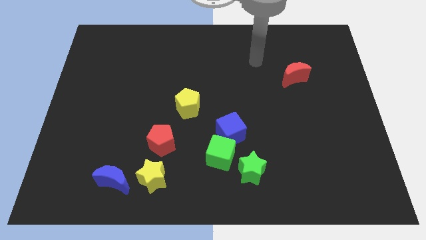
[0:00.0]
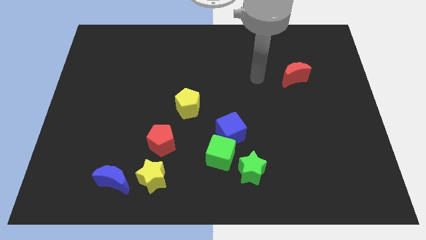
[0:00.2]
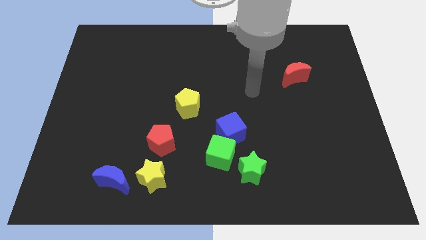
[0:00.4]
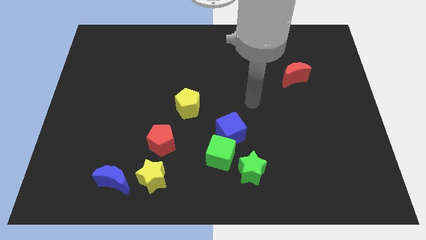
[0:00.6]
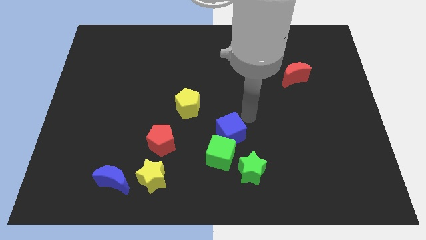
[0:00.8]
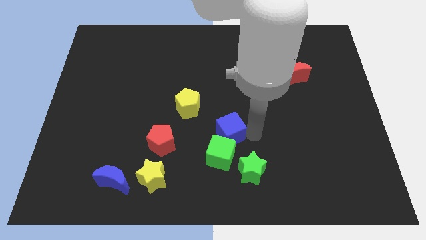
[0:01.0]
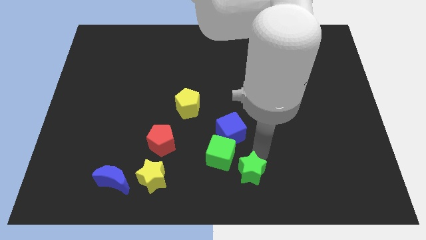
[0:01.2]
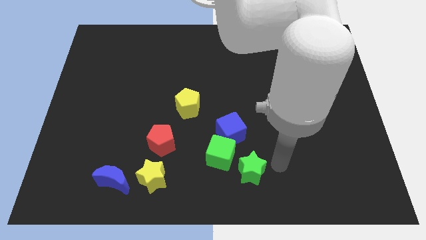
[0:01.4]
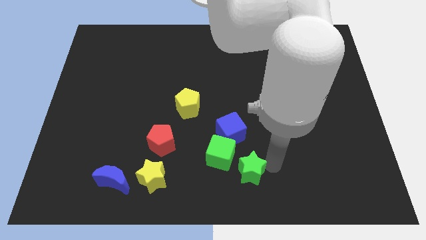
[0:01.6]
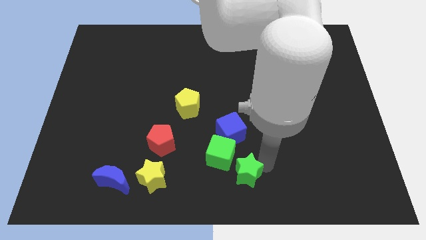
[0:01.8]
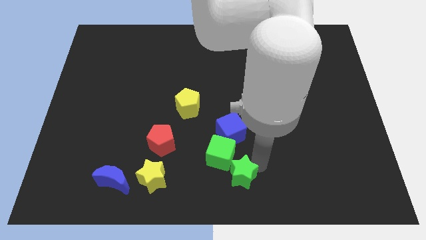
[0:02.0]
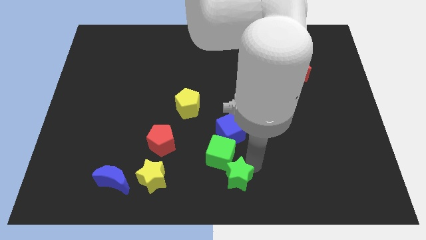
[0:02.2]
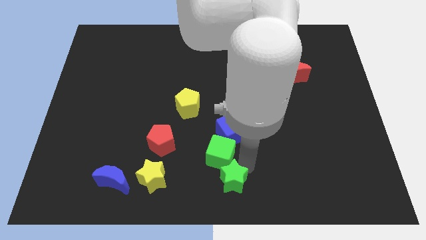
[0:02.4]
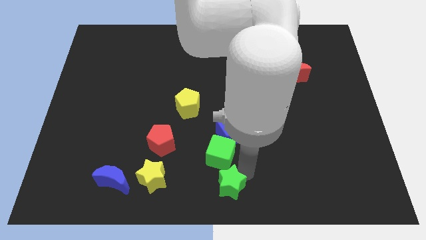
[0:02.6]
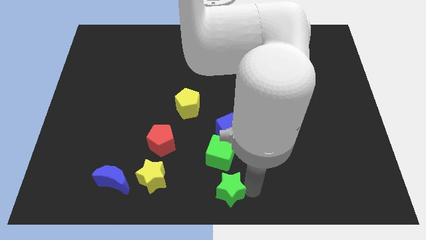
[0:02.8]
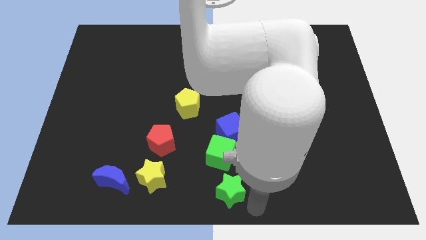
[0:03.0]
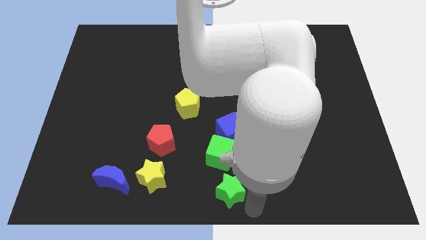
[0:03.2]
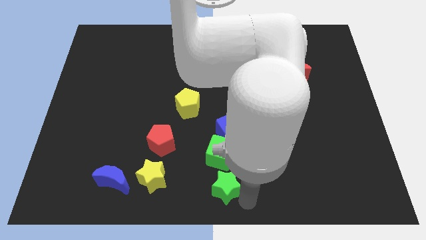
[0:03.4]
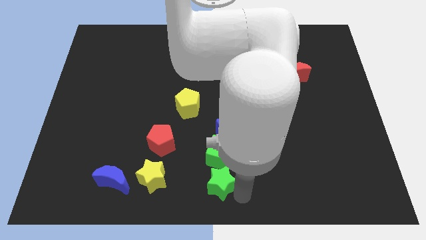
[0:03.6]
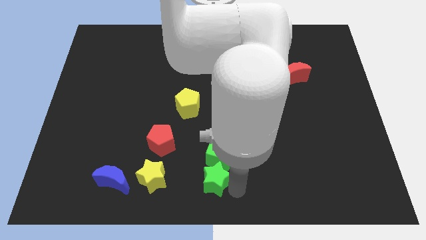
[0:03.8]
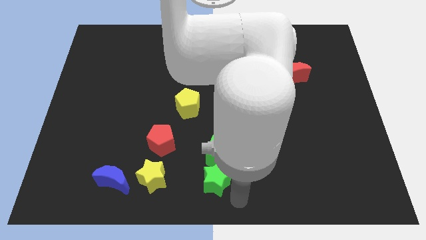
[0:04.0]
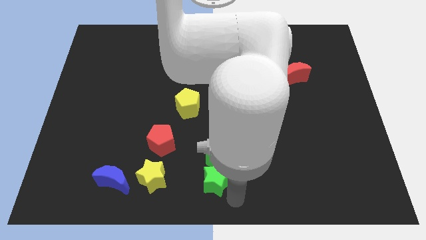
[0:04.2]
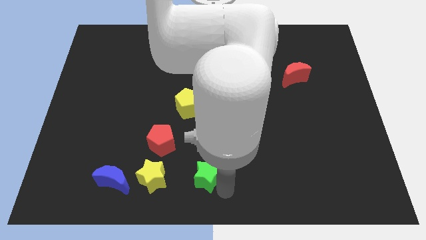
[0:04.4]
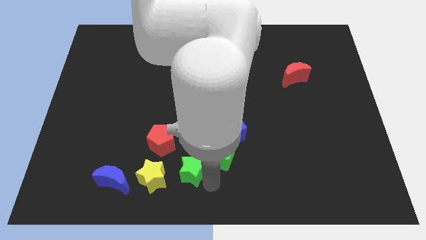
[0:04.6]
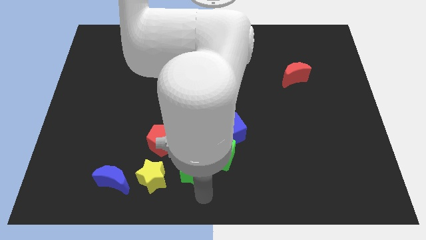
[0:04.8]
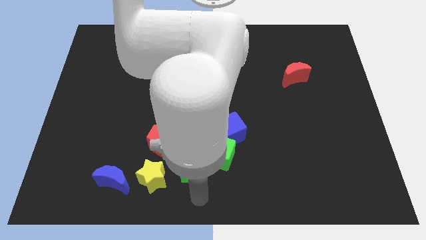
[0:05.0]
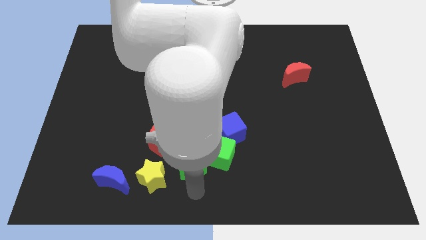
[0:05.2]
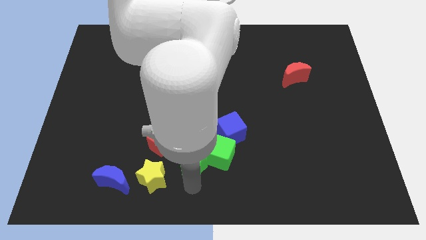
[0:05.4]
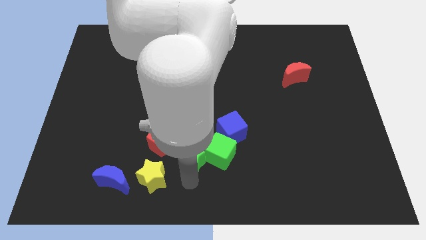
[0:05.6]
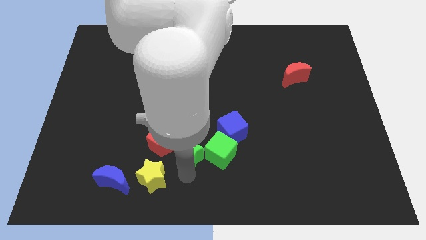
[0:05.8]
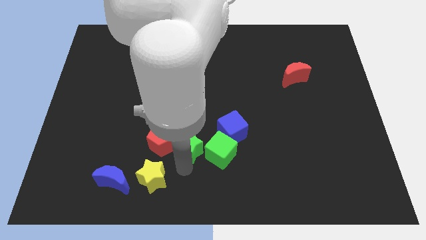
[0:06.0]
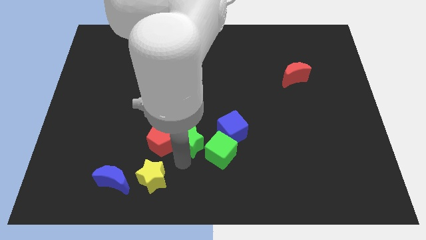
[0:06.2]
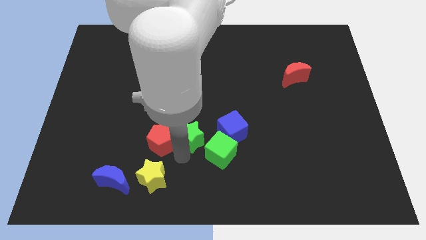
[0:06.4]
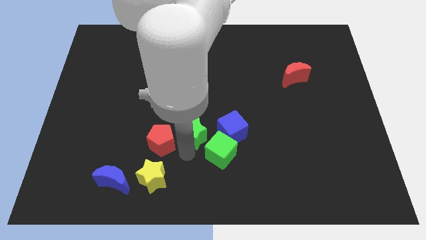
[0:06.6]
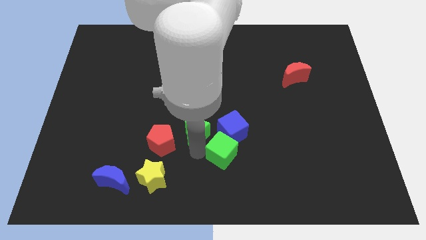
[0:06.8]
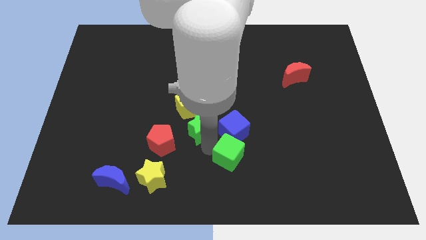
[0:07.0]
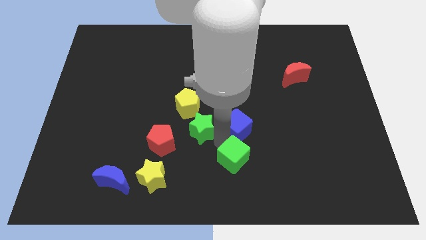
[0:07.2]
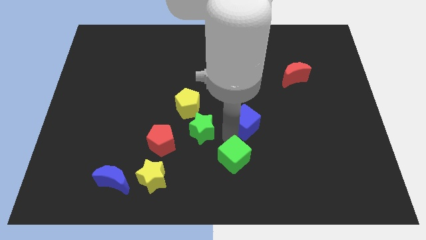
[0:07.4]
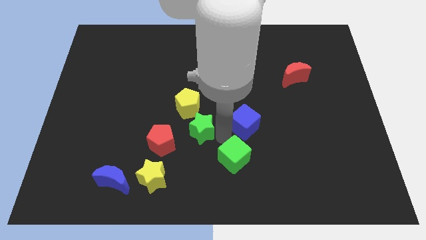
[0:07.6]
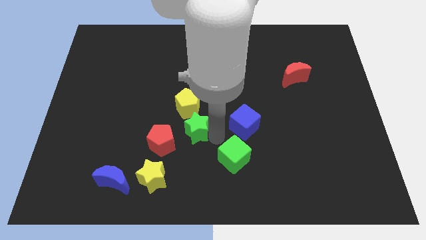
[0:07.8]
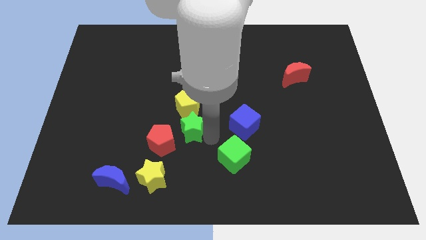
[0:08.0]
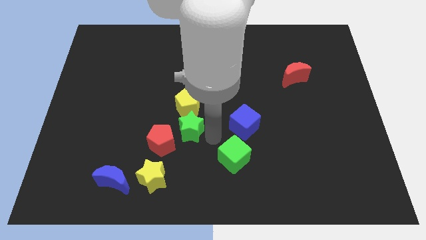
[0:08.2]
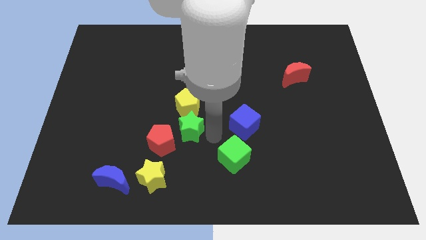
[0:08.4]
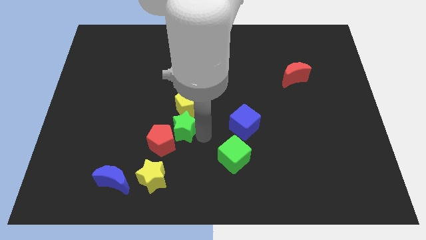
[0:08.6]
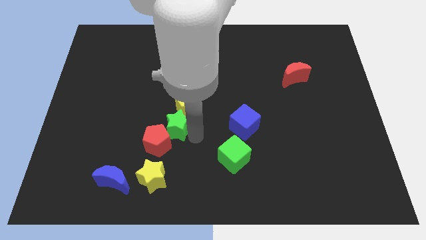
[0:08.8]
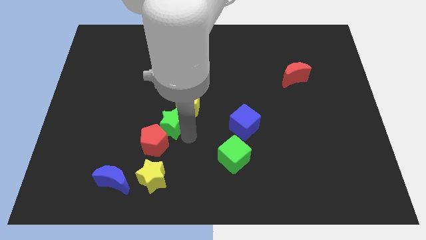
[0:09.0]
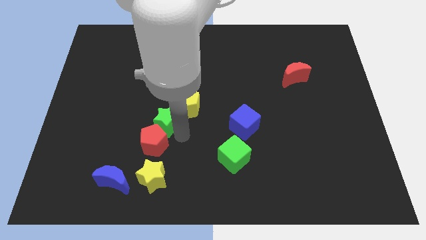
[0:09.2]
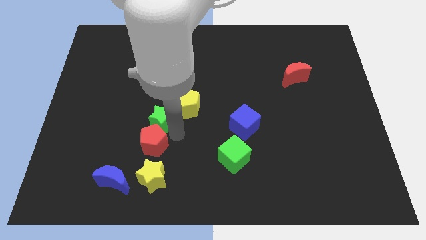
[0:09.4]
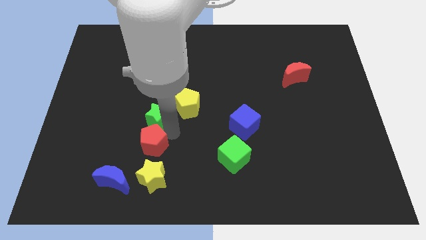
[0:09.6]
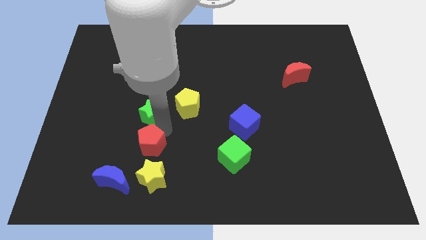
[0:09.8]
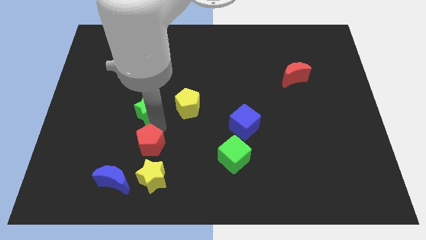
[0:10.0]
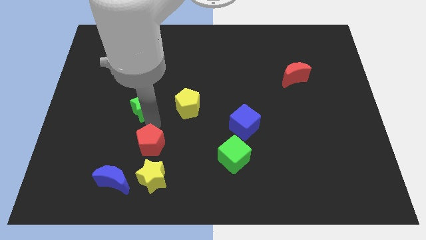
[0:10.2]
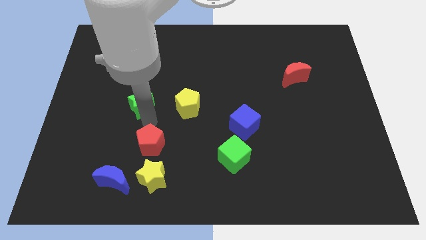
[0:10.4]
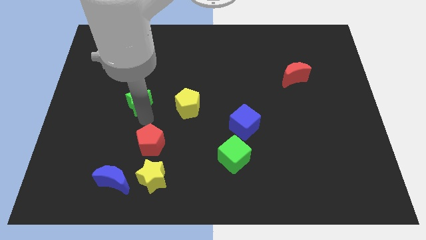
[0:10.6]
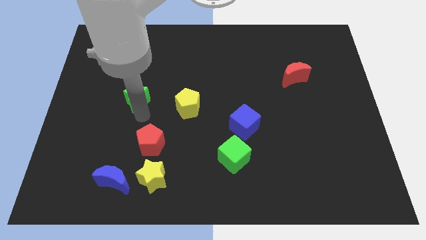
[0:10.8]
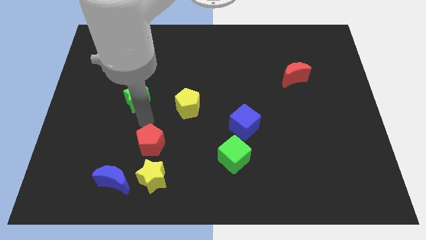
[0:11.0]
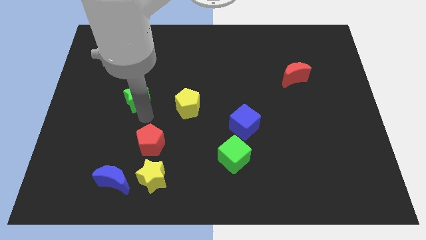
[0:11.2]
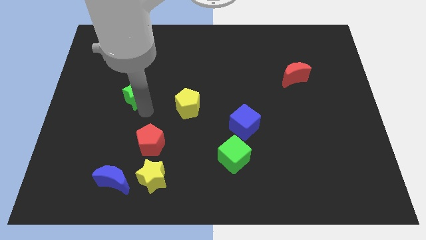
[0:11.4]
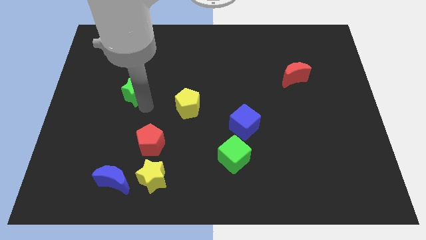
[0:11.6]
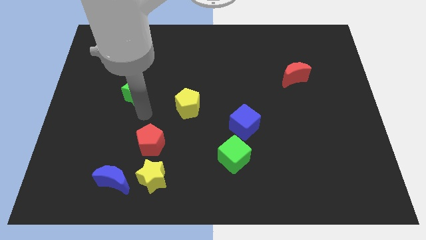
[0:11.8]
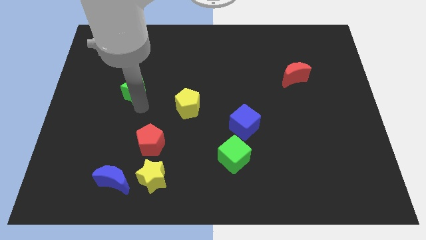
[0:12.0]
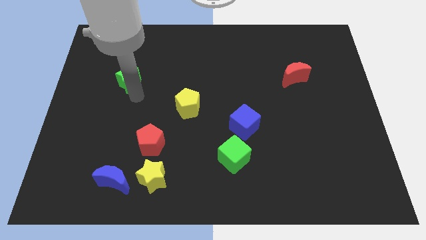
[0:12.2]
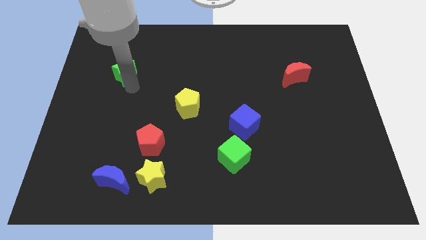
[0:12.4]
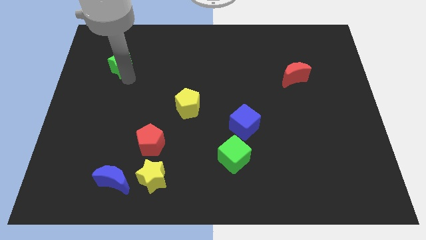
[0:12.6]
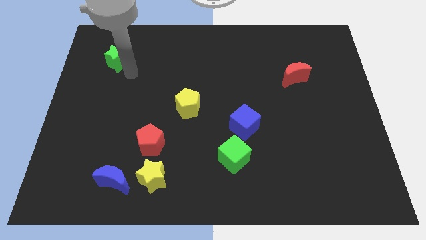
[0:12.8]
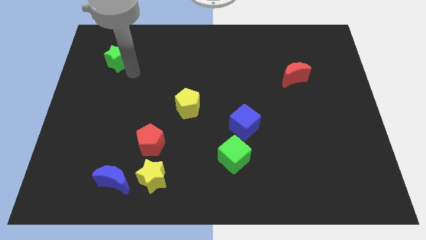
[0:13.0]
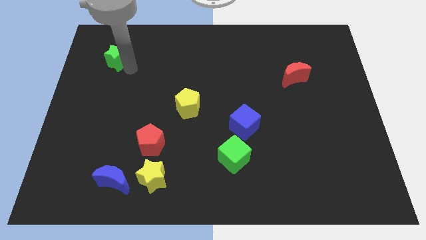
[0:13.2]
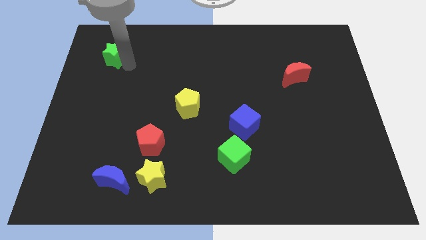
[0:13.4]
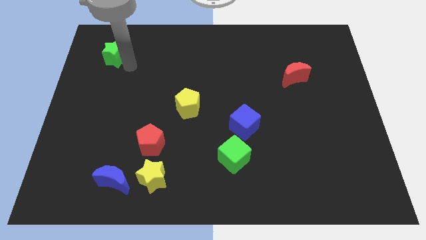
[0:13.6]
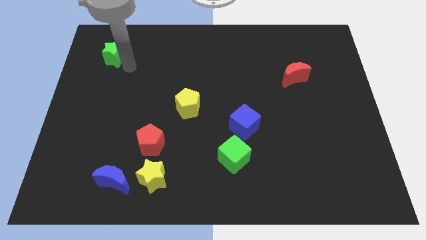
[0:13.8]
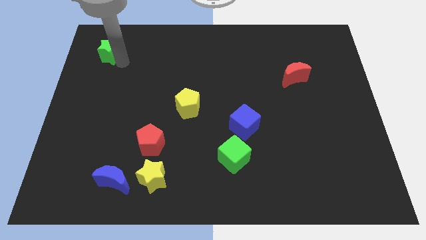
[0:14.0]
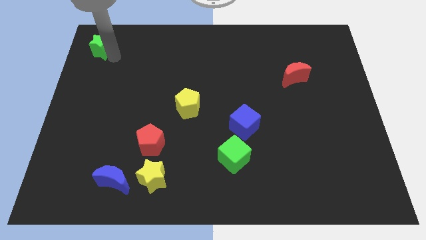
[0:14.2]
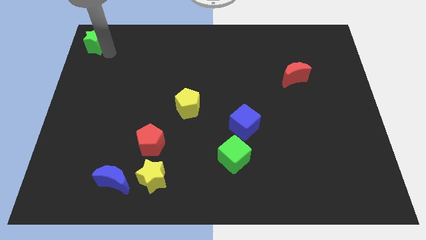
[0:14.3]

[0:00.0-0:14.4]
move the green star to the top left corner
